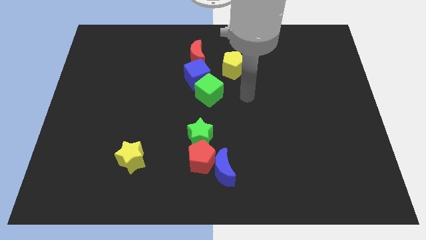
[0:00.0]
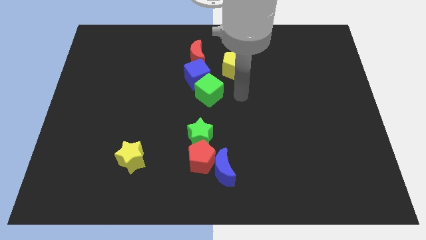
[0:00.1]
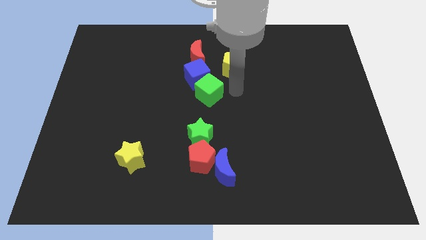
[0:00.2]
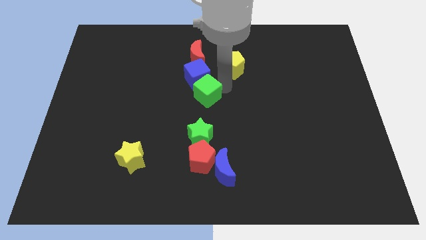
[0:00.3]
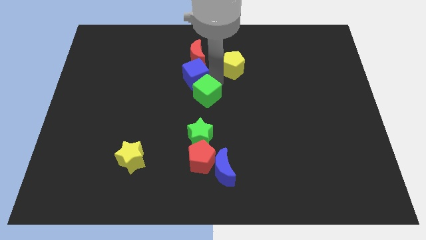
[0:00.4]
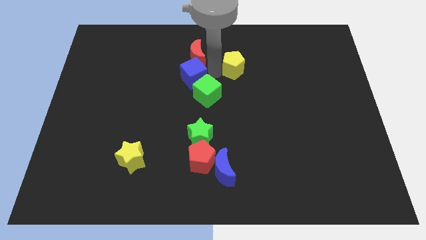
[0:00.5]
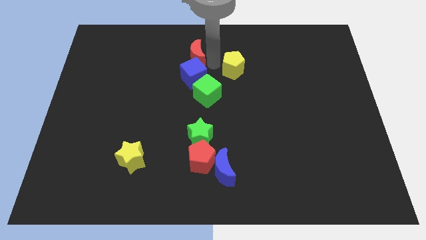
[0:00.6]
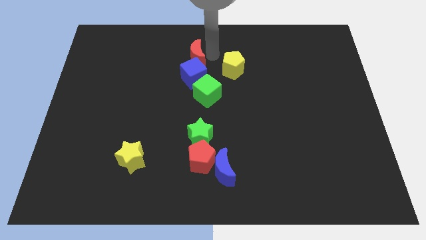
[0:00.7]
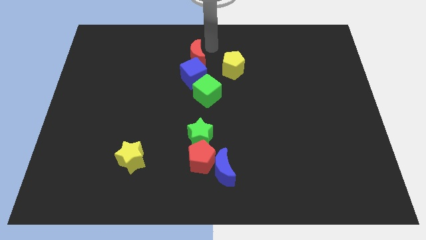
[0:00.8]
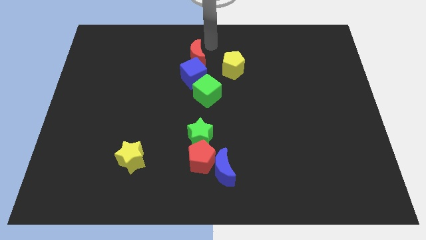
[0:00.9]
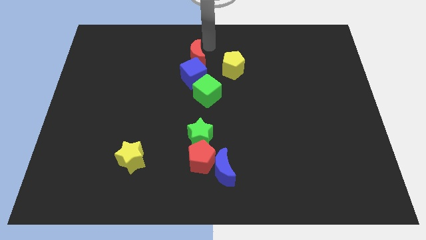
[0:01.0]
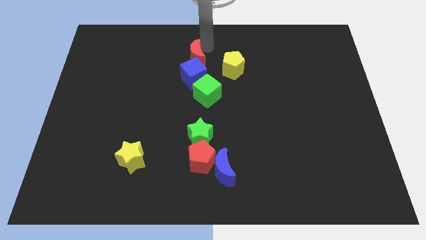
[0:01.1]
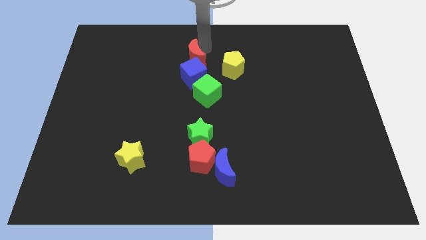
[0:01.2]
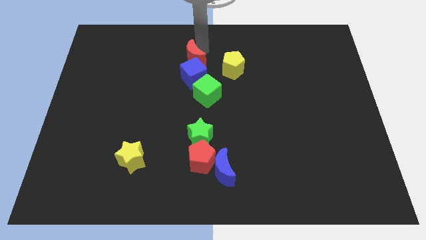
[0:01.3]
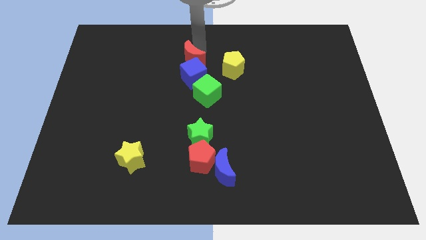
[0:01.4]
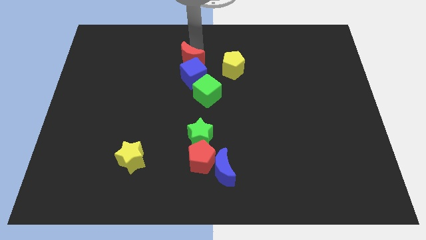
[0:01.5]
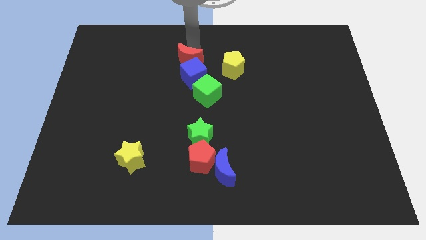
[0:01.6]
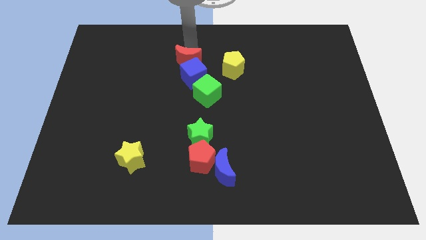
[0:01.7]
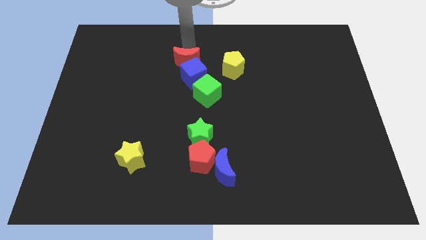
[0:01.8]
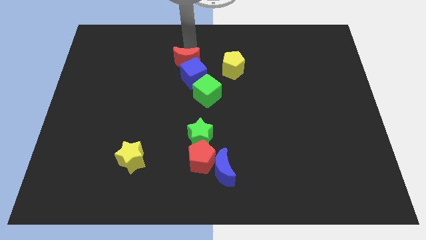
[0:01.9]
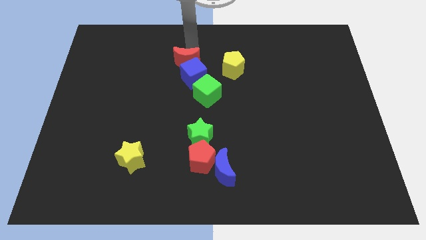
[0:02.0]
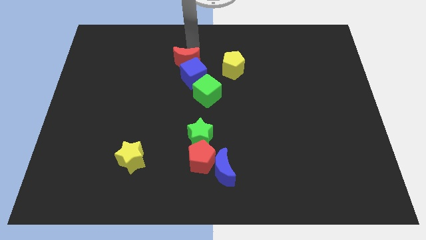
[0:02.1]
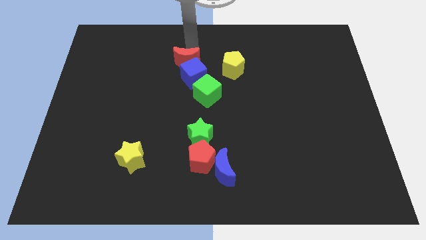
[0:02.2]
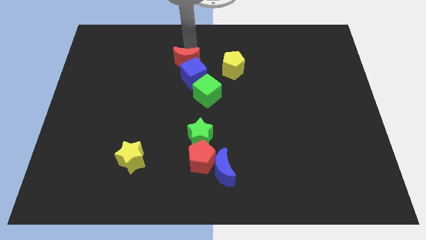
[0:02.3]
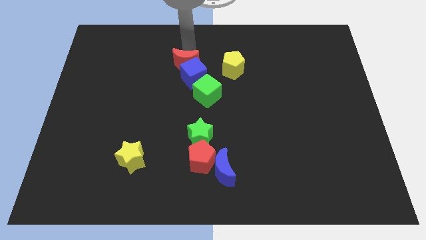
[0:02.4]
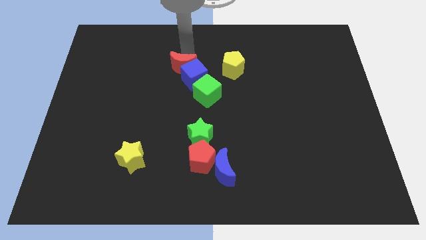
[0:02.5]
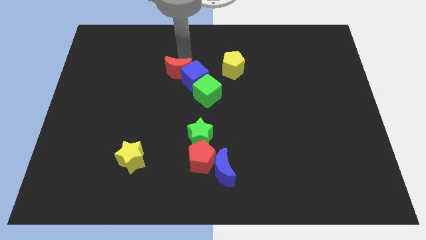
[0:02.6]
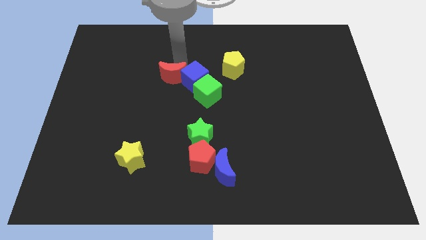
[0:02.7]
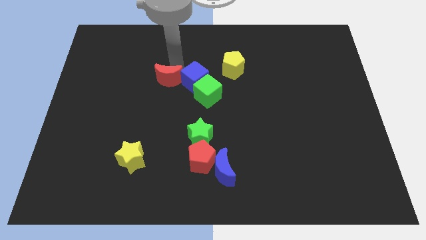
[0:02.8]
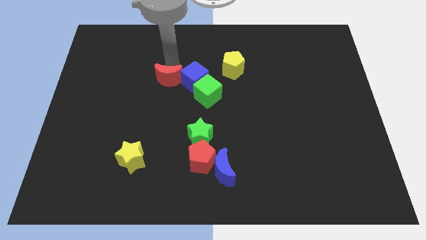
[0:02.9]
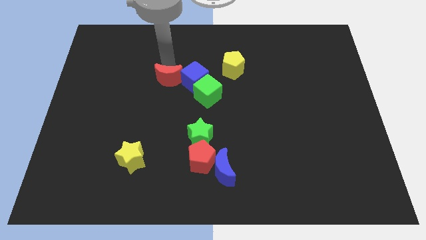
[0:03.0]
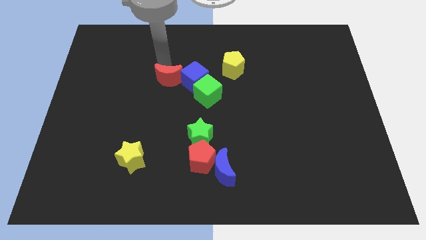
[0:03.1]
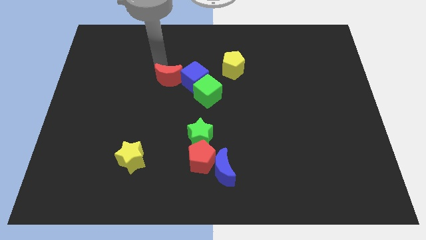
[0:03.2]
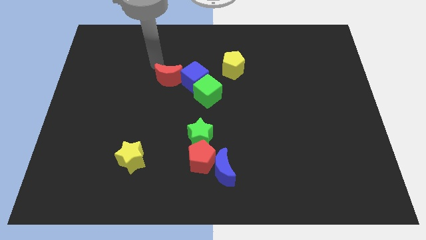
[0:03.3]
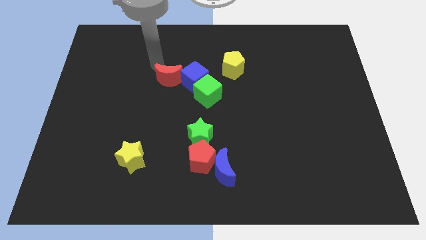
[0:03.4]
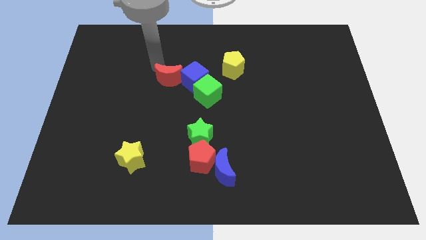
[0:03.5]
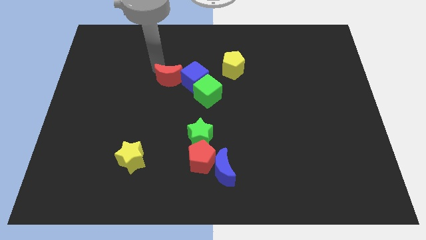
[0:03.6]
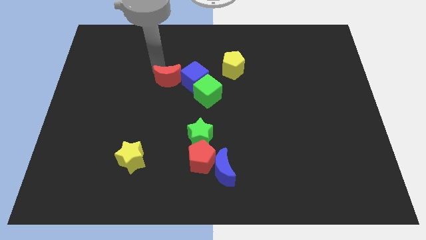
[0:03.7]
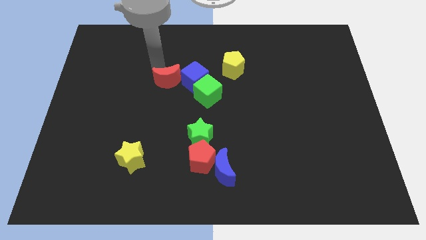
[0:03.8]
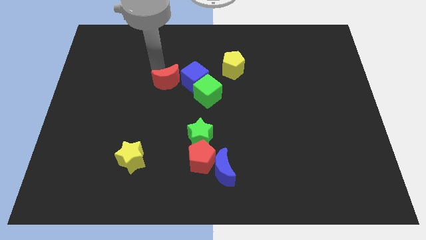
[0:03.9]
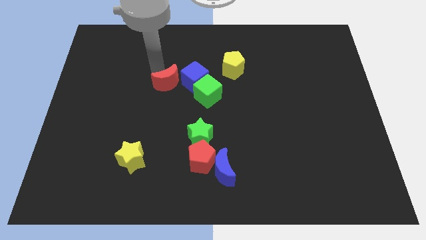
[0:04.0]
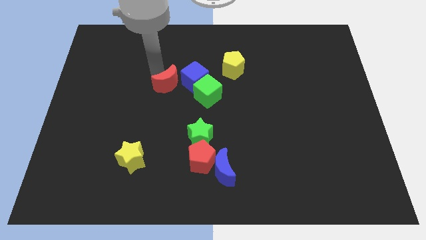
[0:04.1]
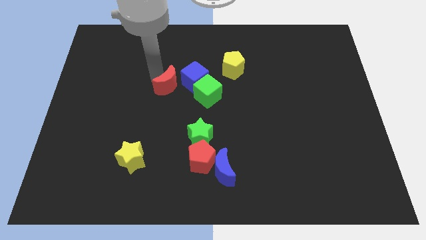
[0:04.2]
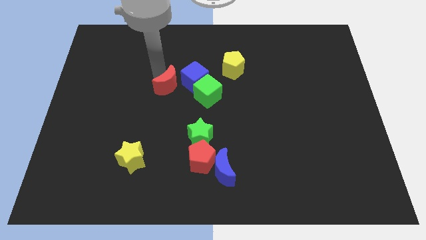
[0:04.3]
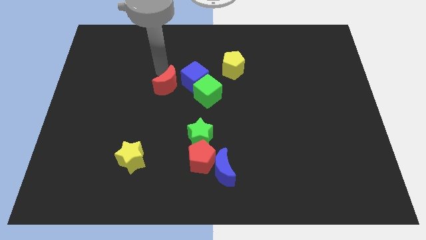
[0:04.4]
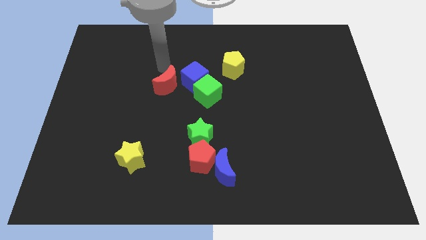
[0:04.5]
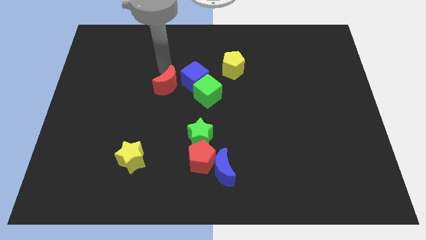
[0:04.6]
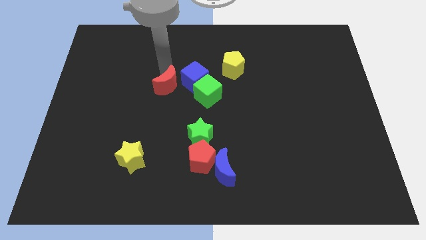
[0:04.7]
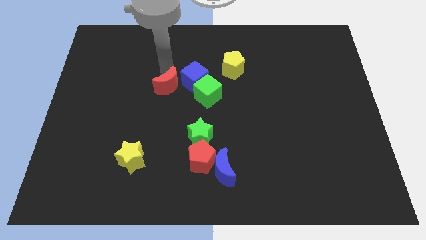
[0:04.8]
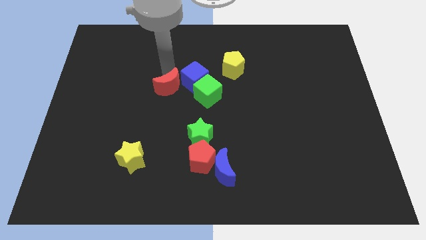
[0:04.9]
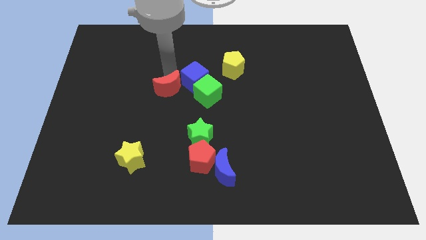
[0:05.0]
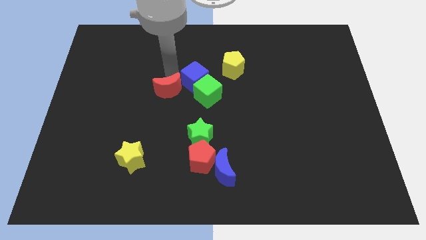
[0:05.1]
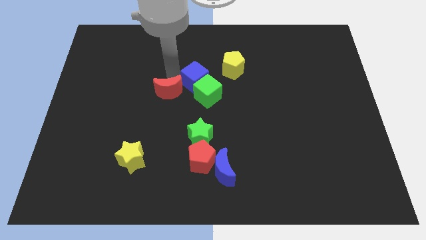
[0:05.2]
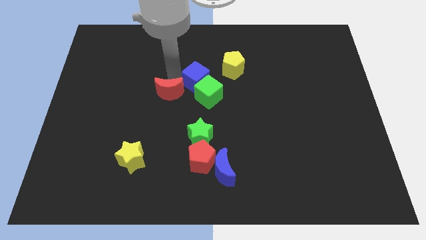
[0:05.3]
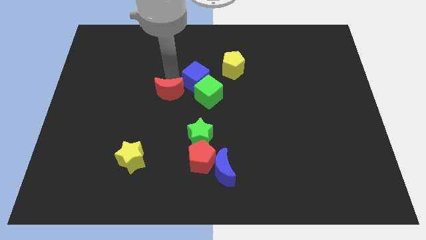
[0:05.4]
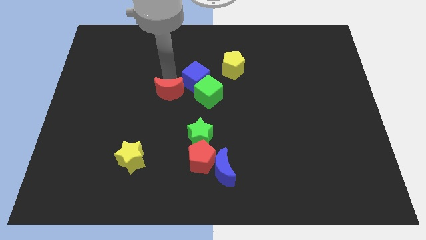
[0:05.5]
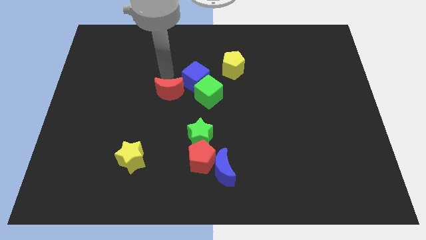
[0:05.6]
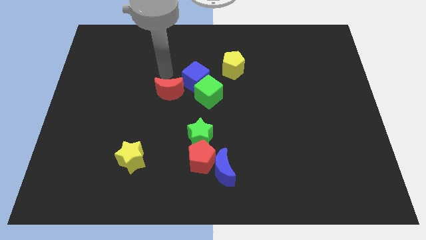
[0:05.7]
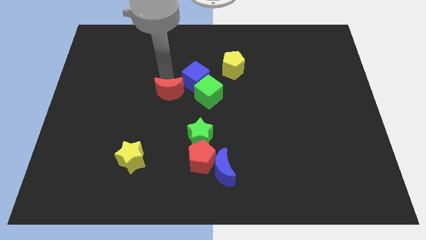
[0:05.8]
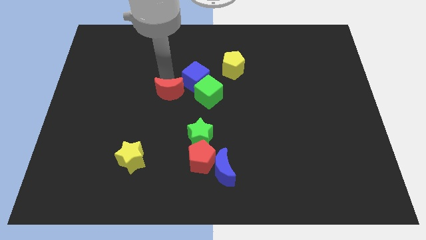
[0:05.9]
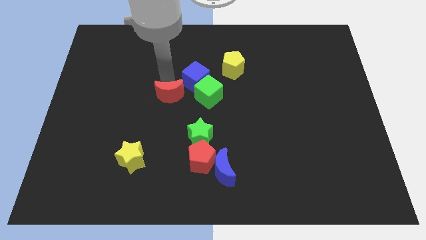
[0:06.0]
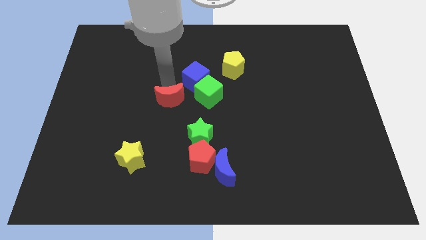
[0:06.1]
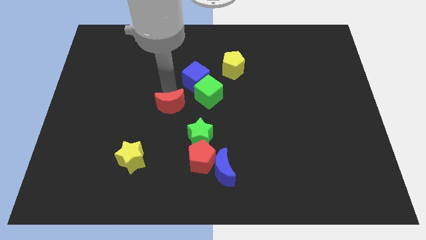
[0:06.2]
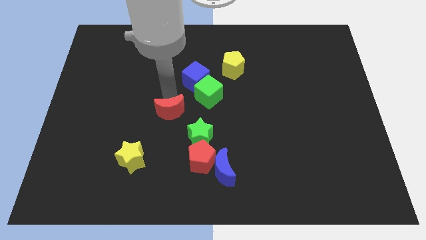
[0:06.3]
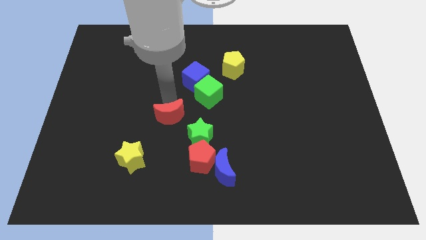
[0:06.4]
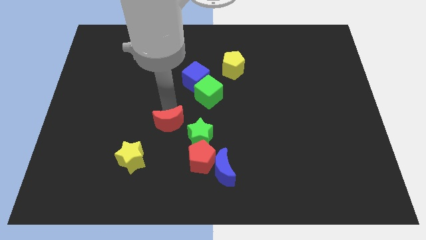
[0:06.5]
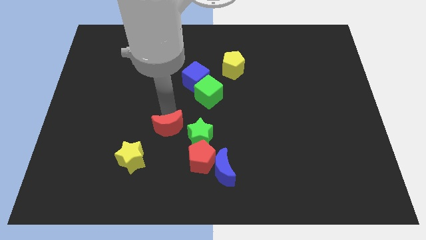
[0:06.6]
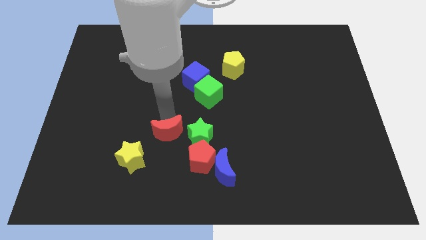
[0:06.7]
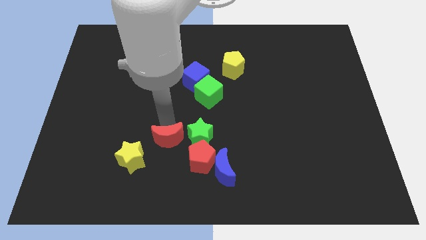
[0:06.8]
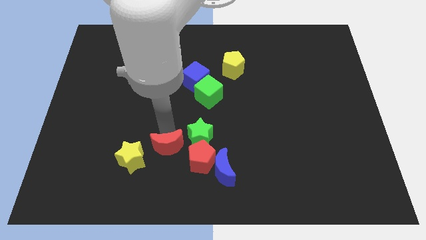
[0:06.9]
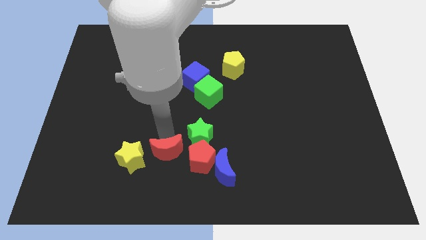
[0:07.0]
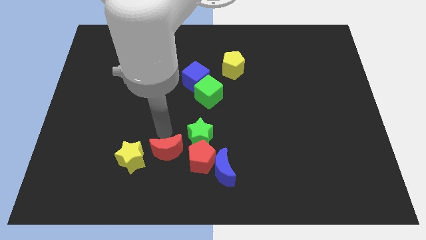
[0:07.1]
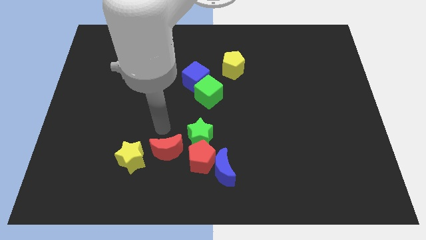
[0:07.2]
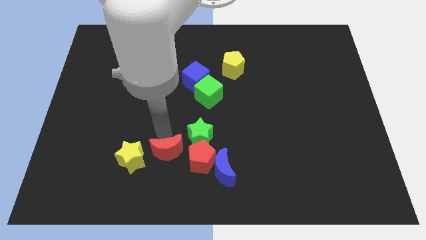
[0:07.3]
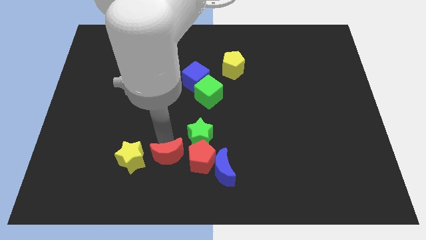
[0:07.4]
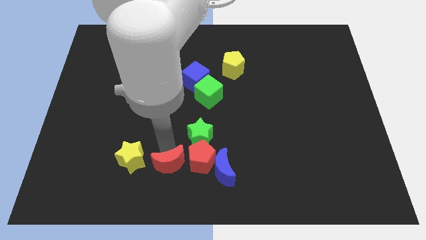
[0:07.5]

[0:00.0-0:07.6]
put the red moon to the bottom left side of the red pentagon
